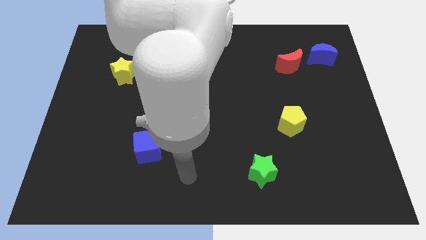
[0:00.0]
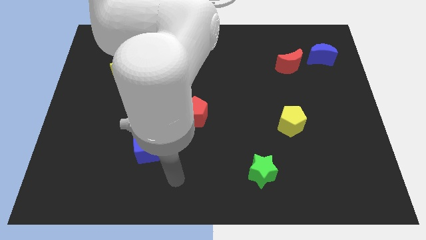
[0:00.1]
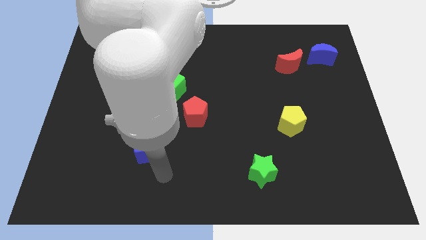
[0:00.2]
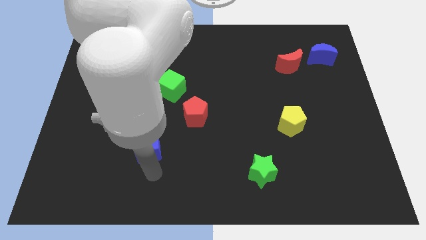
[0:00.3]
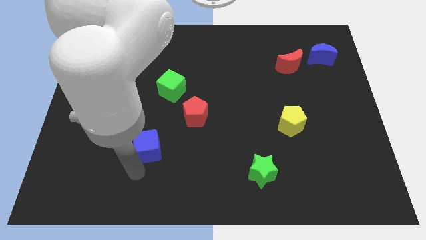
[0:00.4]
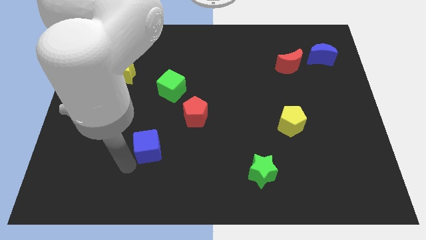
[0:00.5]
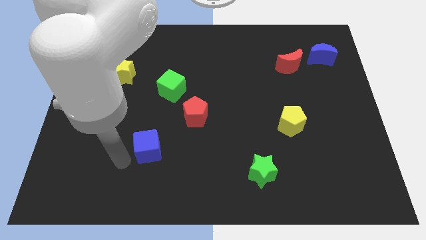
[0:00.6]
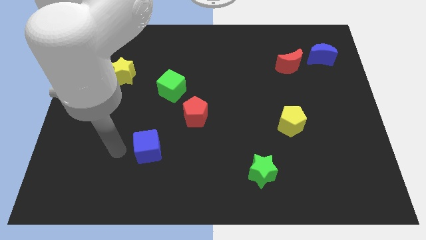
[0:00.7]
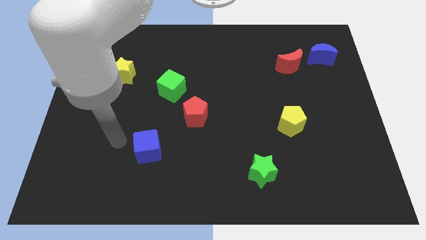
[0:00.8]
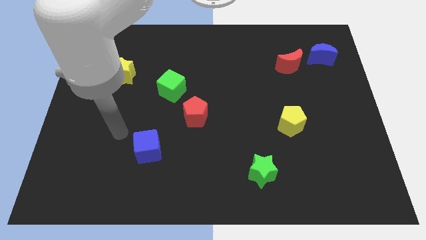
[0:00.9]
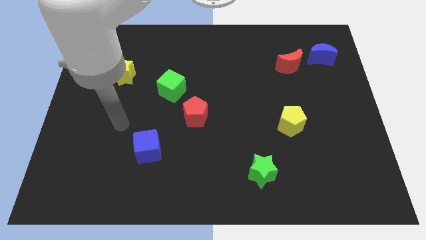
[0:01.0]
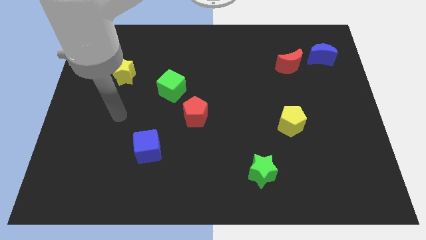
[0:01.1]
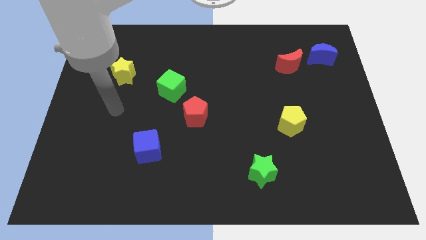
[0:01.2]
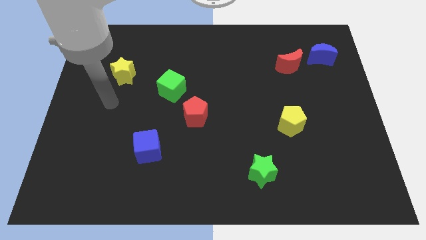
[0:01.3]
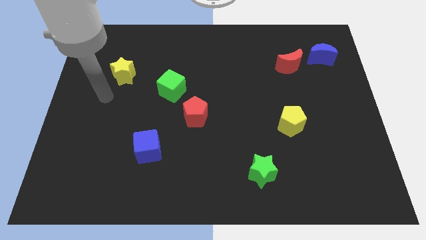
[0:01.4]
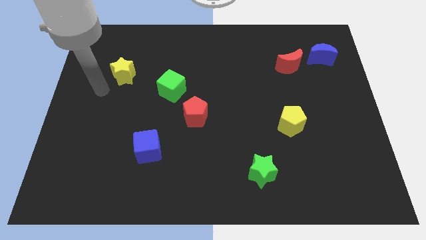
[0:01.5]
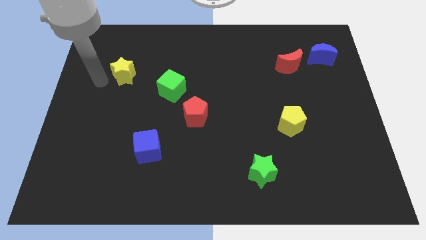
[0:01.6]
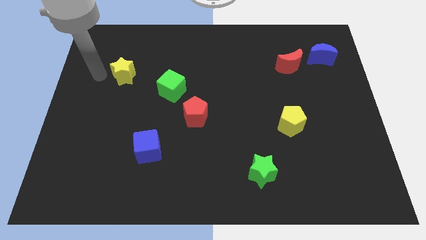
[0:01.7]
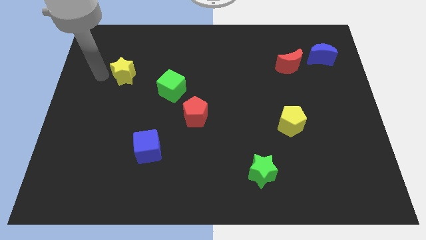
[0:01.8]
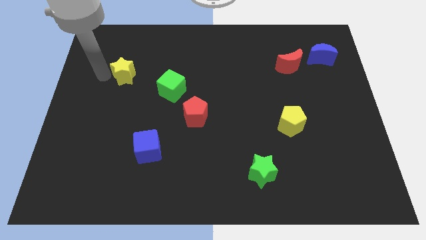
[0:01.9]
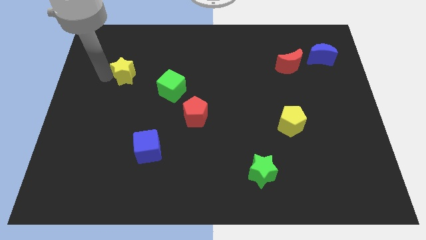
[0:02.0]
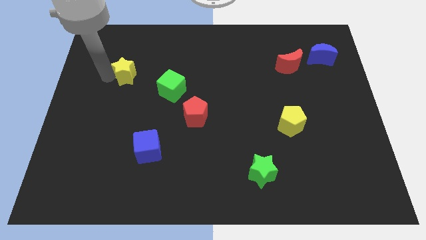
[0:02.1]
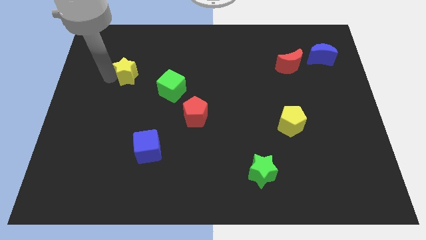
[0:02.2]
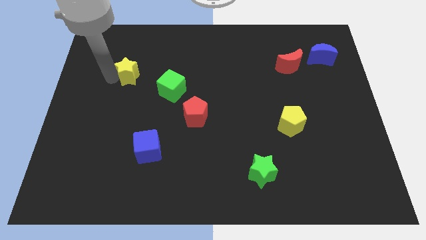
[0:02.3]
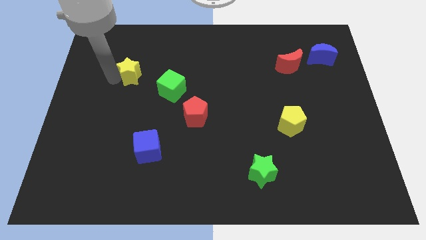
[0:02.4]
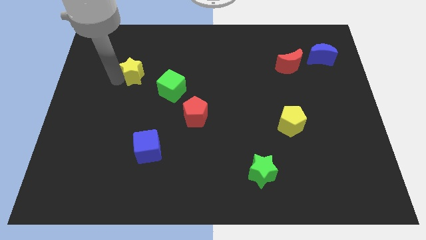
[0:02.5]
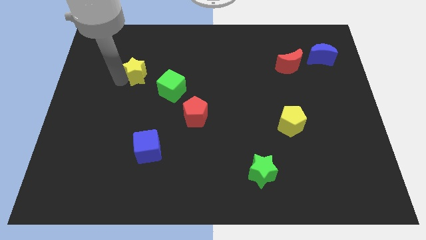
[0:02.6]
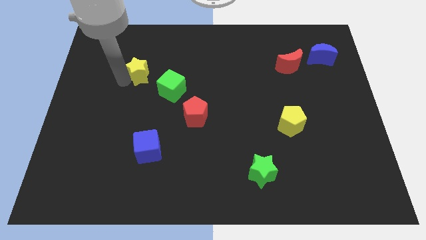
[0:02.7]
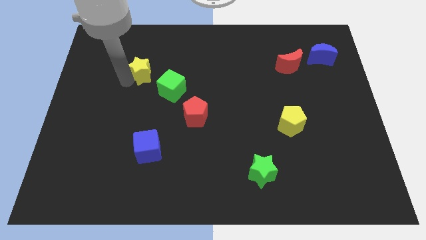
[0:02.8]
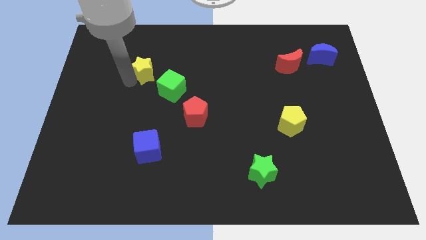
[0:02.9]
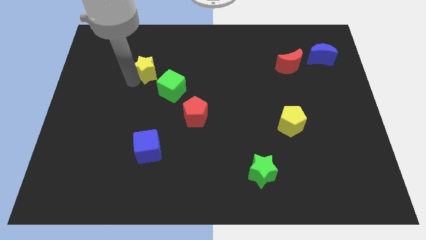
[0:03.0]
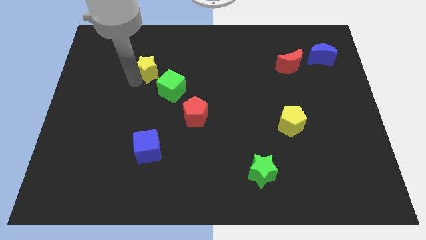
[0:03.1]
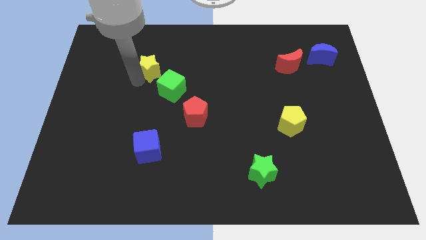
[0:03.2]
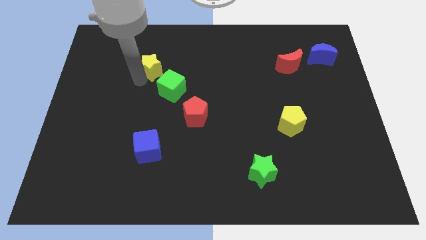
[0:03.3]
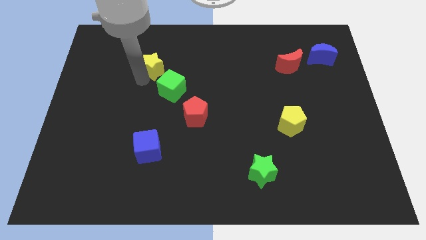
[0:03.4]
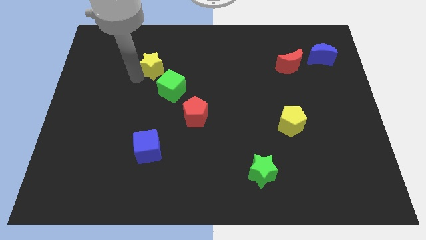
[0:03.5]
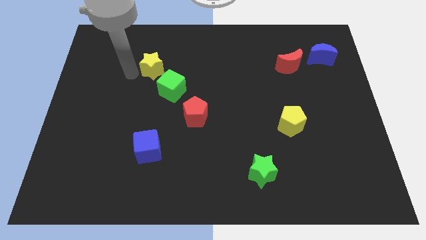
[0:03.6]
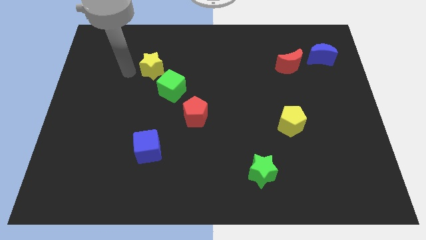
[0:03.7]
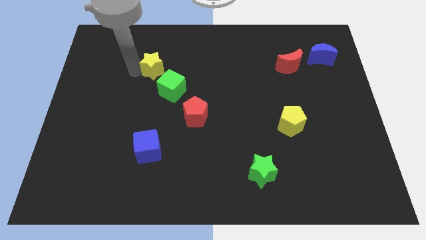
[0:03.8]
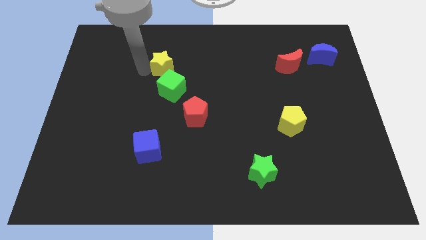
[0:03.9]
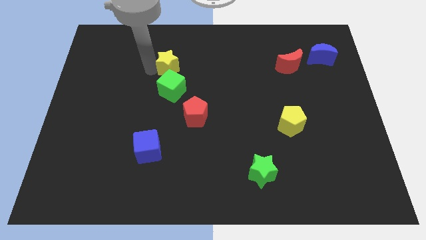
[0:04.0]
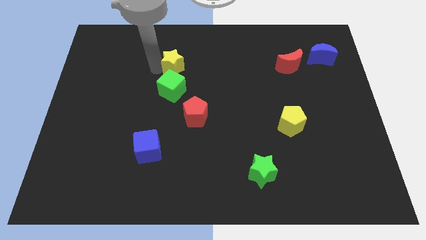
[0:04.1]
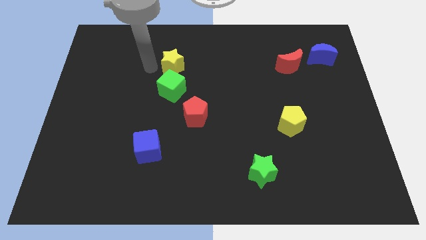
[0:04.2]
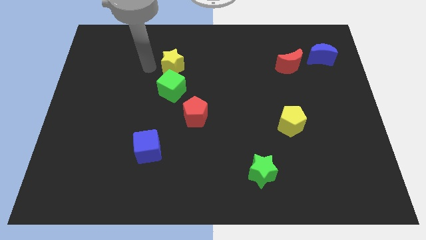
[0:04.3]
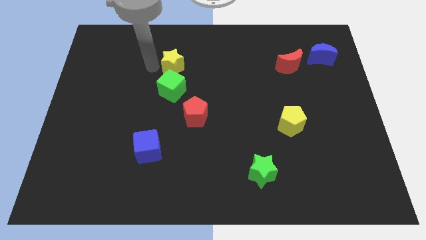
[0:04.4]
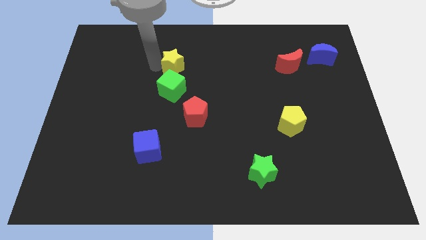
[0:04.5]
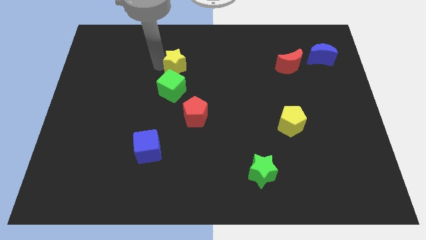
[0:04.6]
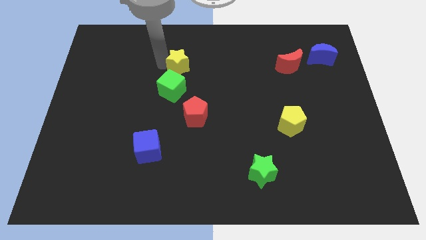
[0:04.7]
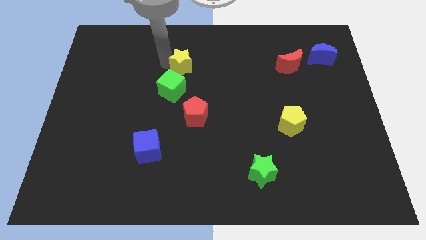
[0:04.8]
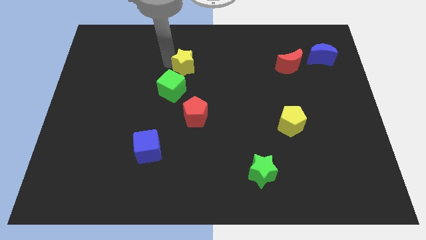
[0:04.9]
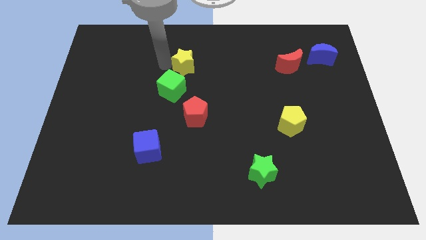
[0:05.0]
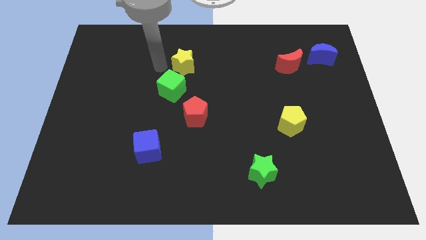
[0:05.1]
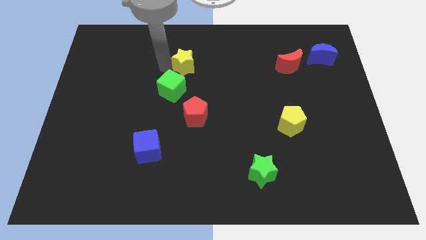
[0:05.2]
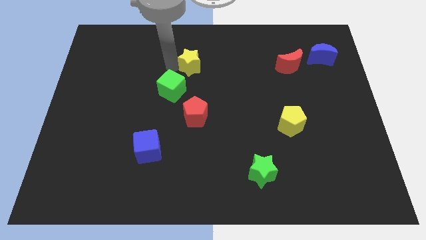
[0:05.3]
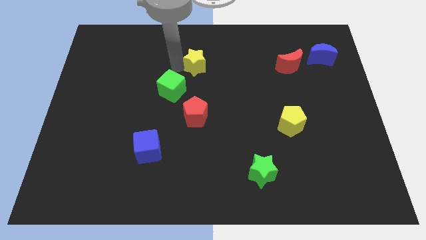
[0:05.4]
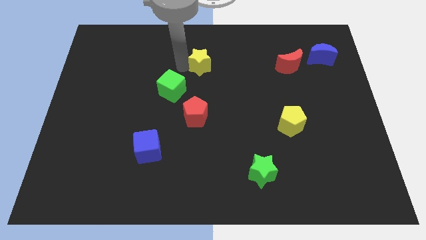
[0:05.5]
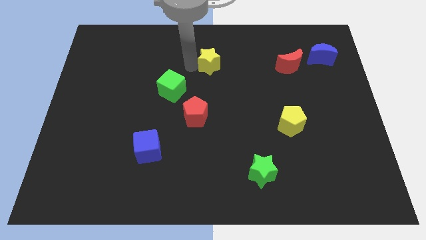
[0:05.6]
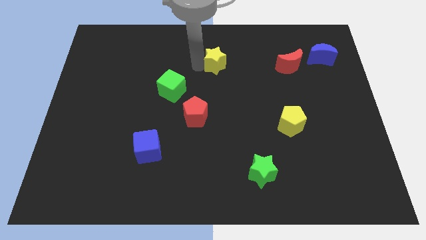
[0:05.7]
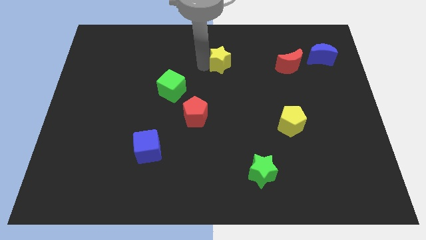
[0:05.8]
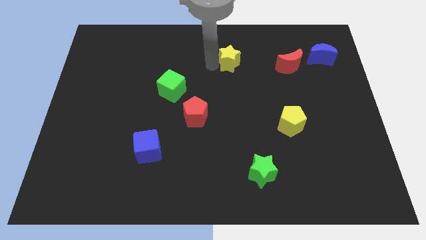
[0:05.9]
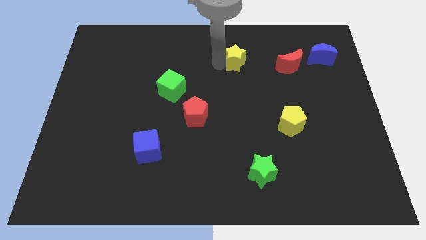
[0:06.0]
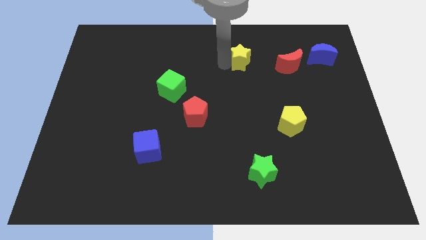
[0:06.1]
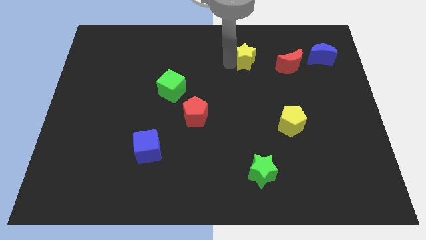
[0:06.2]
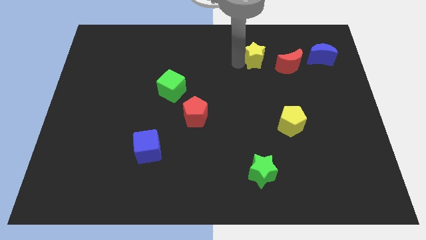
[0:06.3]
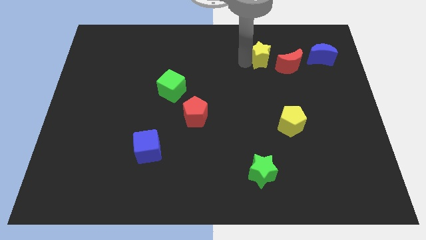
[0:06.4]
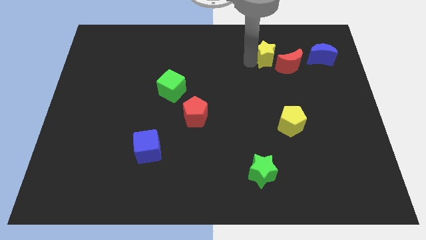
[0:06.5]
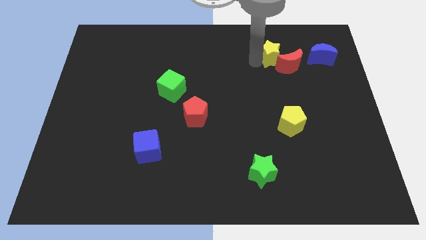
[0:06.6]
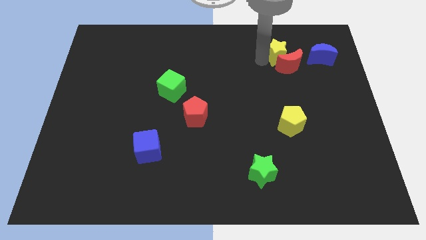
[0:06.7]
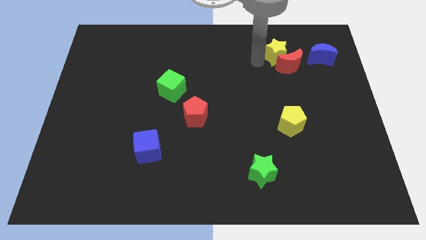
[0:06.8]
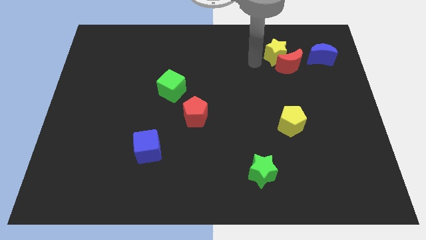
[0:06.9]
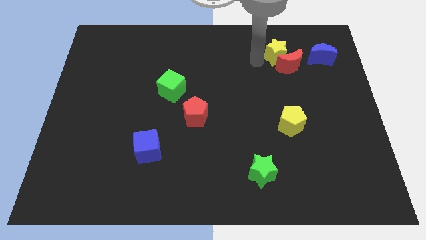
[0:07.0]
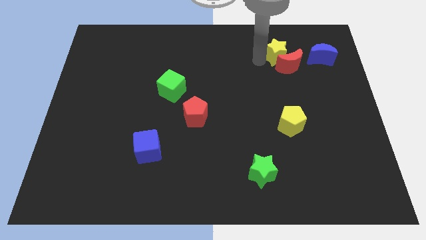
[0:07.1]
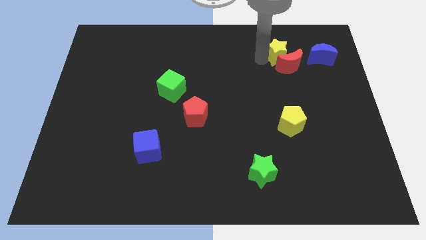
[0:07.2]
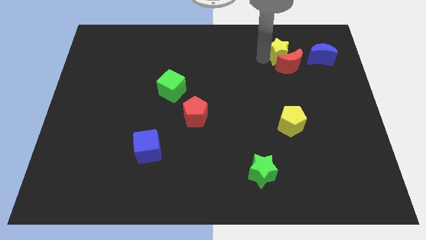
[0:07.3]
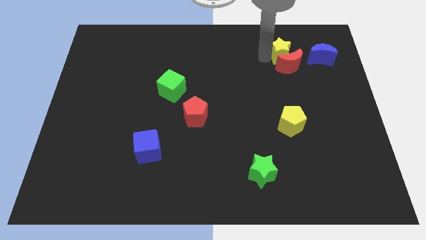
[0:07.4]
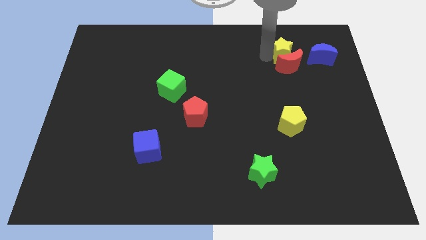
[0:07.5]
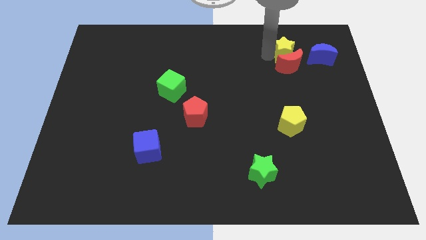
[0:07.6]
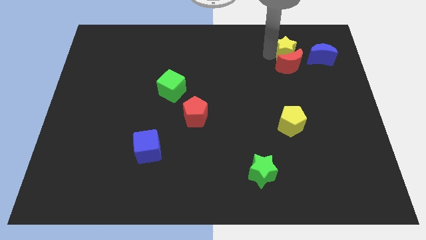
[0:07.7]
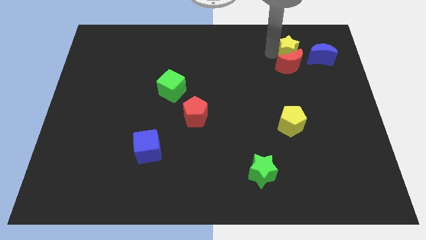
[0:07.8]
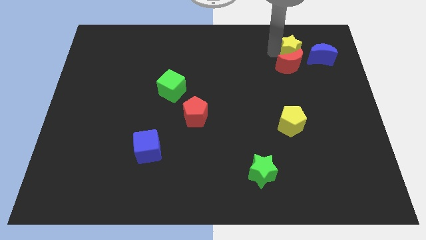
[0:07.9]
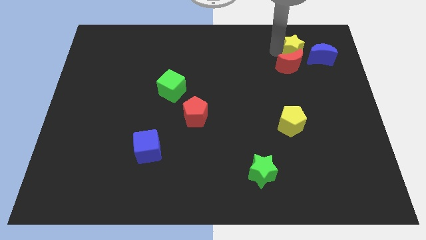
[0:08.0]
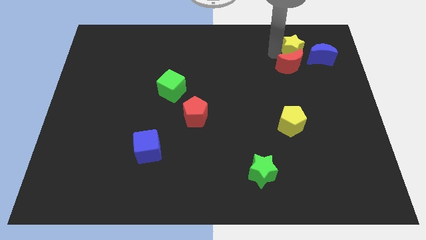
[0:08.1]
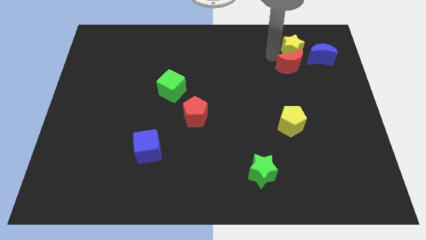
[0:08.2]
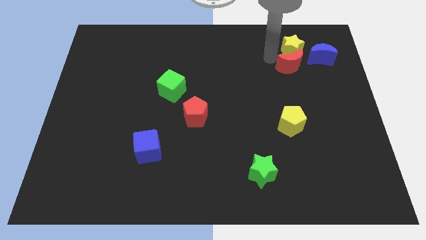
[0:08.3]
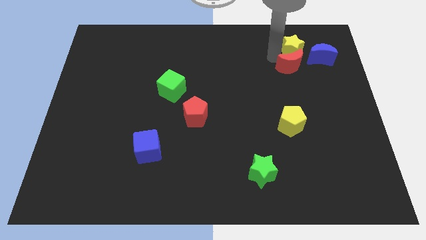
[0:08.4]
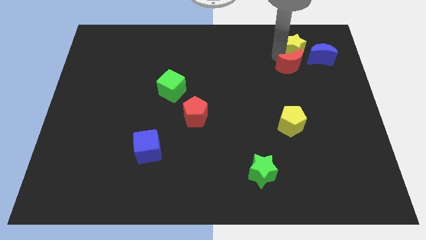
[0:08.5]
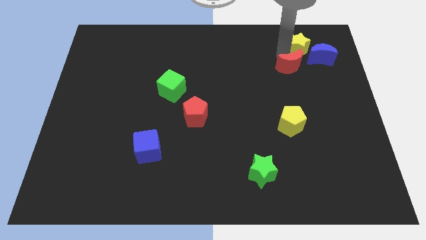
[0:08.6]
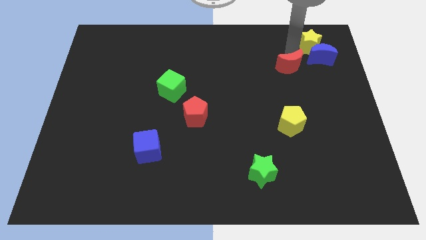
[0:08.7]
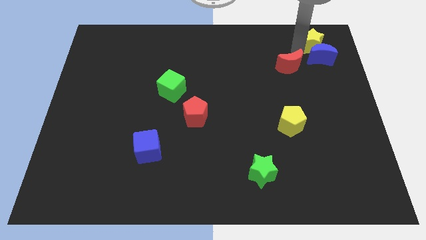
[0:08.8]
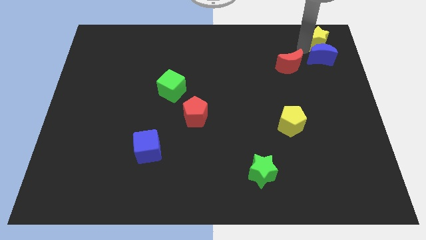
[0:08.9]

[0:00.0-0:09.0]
push the yellow star to the top right of the board
